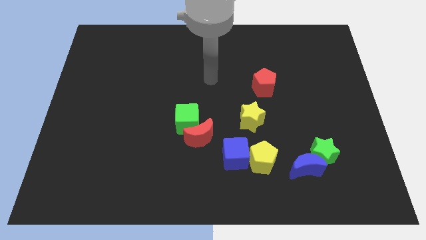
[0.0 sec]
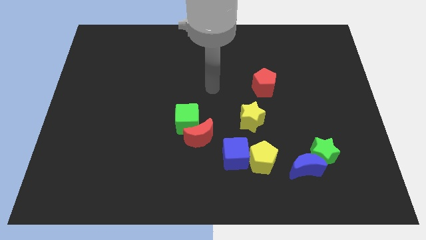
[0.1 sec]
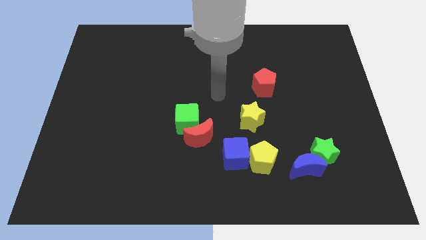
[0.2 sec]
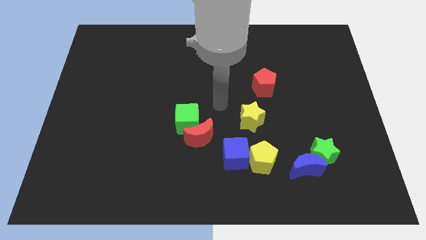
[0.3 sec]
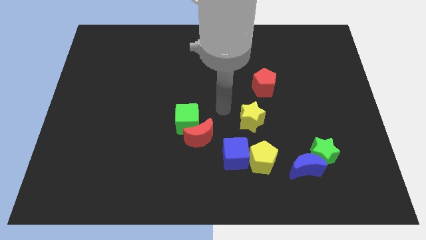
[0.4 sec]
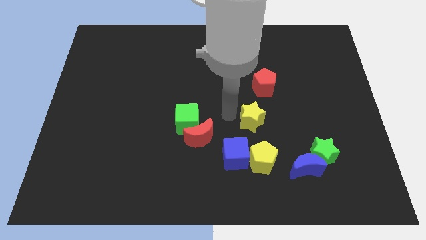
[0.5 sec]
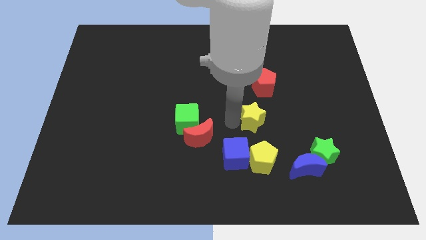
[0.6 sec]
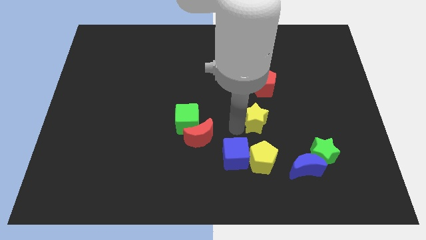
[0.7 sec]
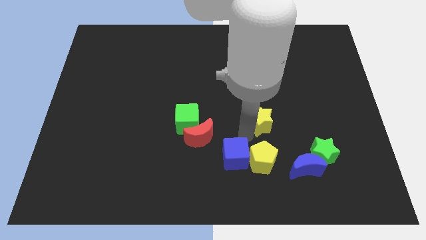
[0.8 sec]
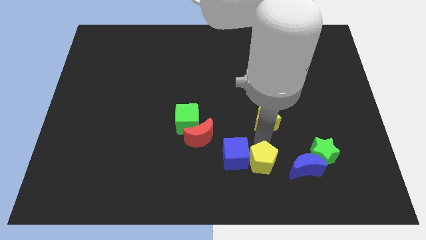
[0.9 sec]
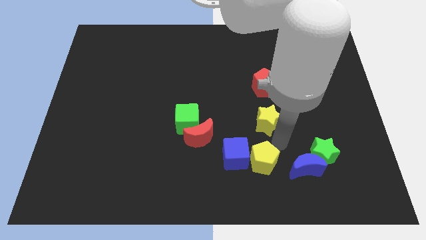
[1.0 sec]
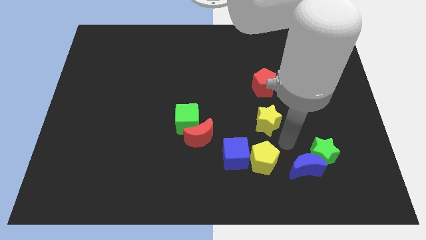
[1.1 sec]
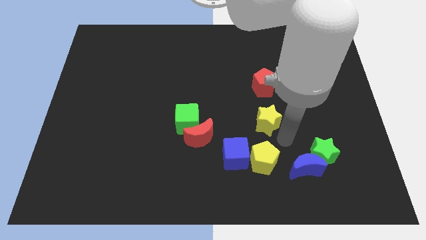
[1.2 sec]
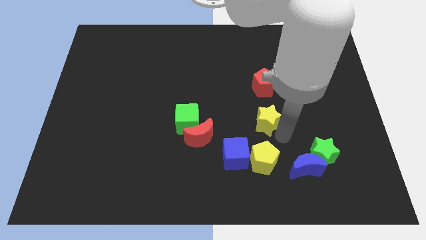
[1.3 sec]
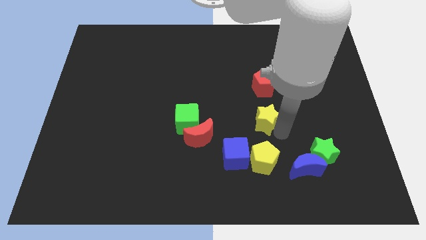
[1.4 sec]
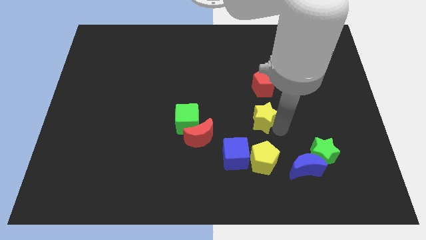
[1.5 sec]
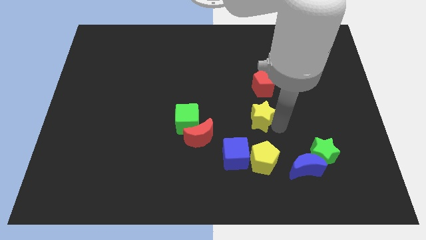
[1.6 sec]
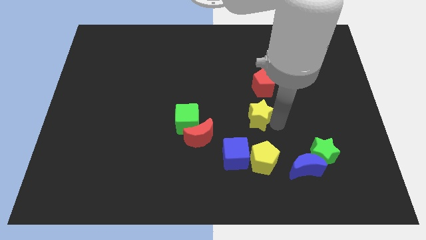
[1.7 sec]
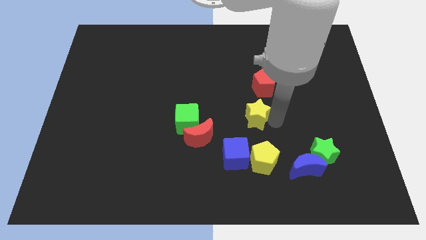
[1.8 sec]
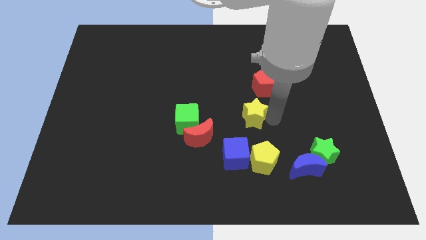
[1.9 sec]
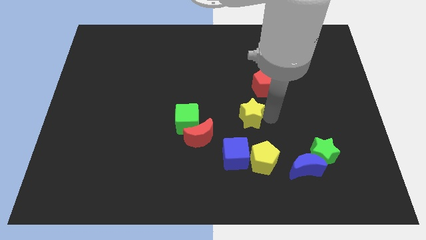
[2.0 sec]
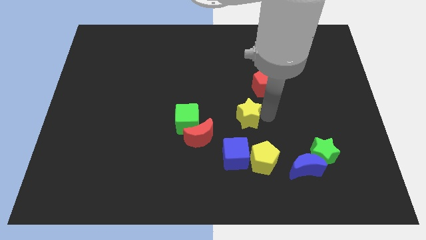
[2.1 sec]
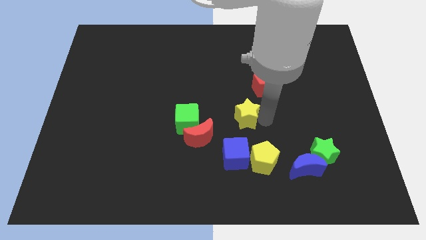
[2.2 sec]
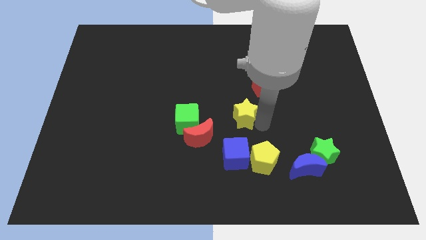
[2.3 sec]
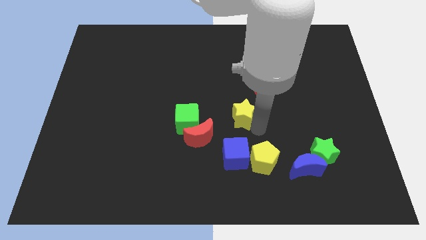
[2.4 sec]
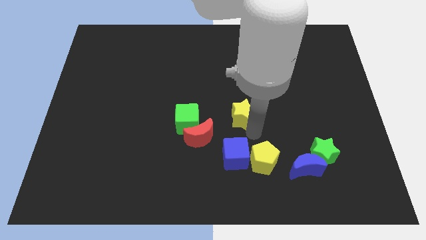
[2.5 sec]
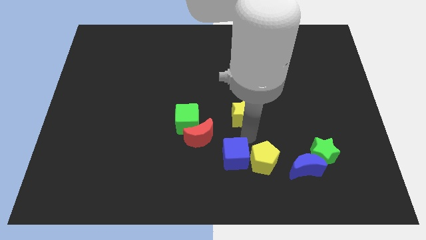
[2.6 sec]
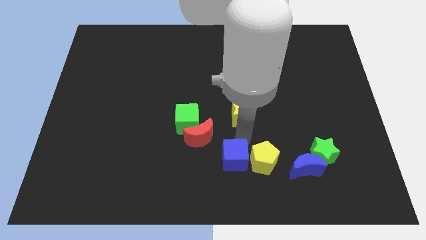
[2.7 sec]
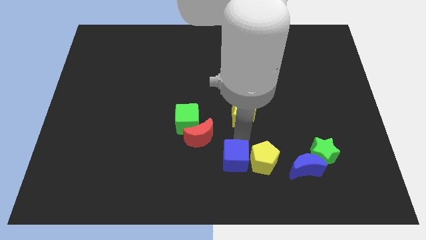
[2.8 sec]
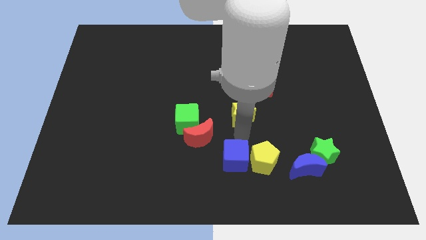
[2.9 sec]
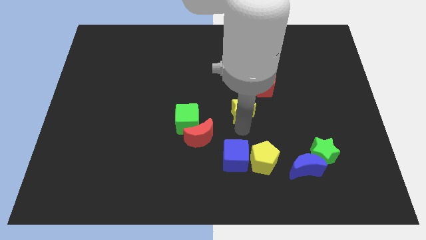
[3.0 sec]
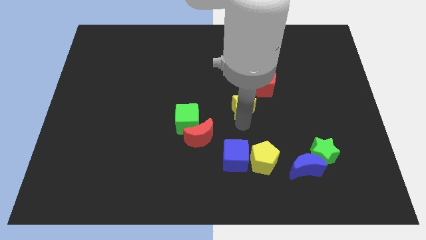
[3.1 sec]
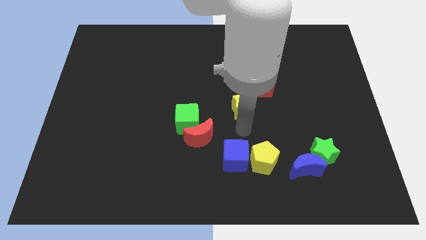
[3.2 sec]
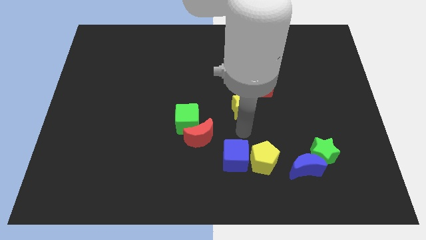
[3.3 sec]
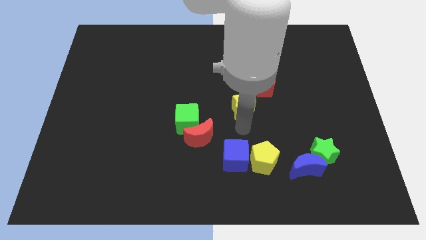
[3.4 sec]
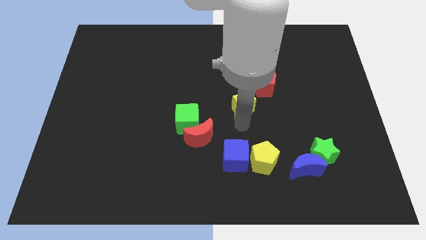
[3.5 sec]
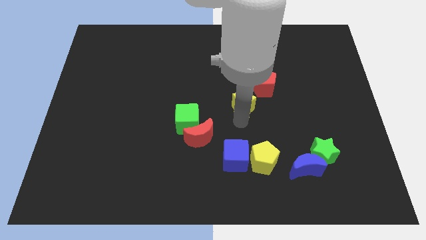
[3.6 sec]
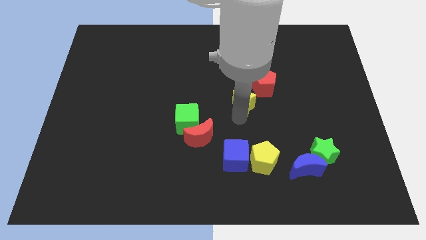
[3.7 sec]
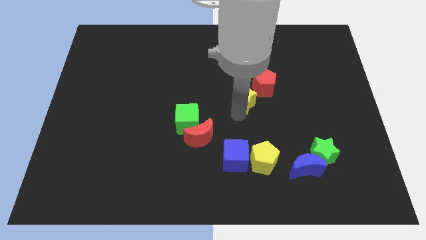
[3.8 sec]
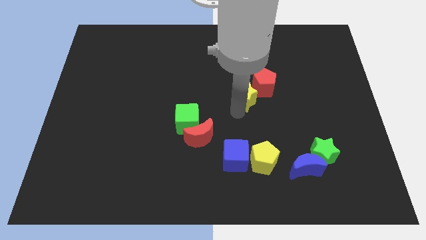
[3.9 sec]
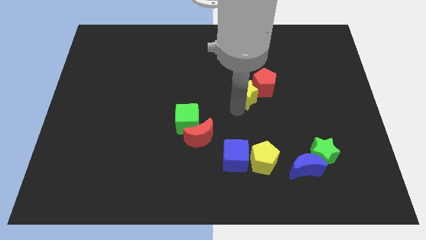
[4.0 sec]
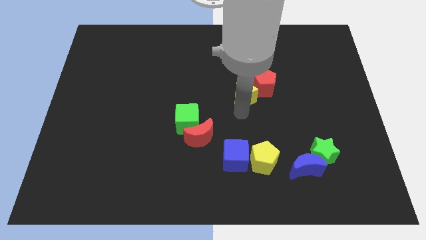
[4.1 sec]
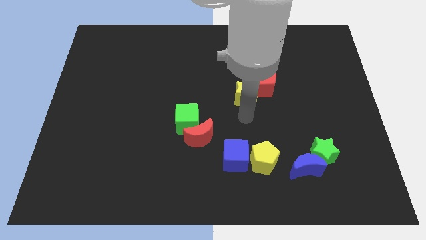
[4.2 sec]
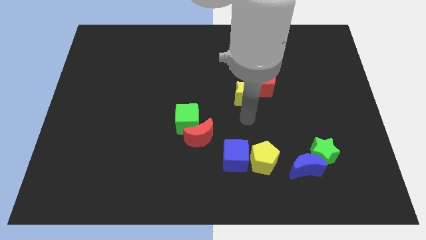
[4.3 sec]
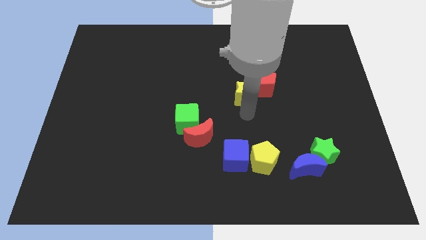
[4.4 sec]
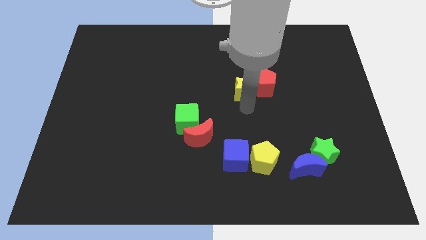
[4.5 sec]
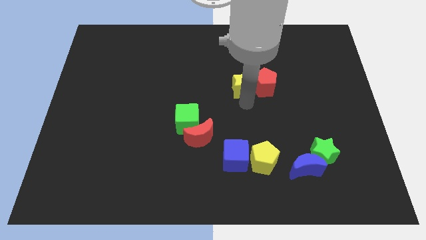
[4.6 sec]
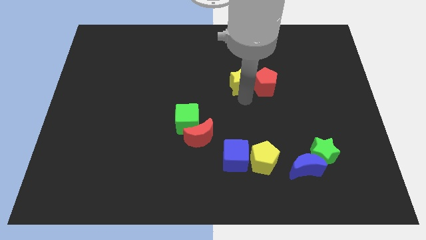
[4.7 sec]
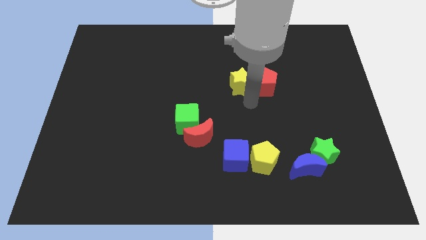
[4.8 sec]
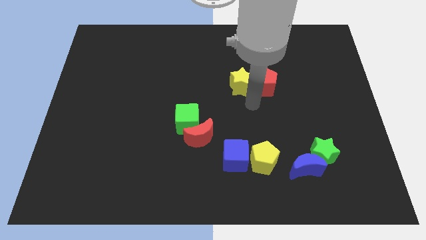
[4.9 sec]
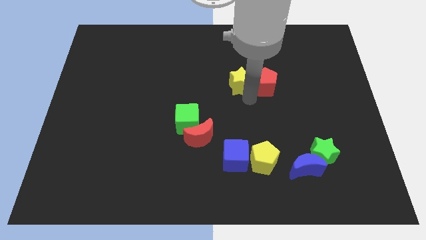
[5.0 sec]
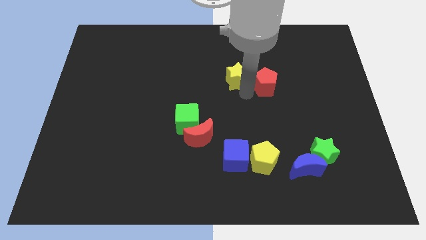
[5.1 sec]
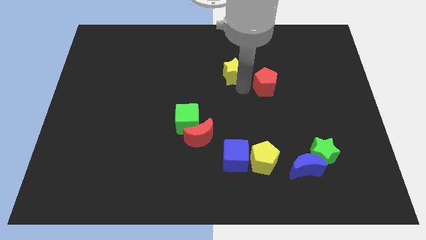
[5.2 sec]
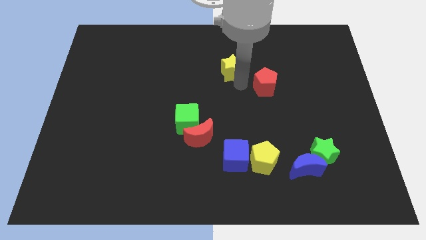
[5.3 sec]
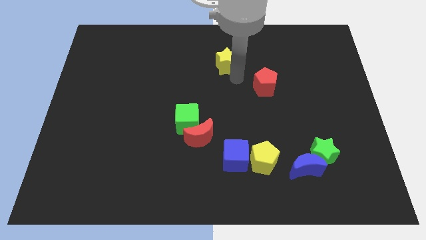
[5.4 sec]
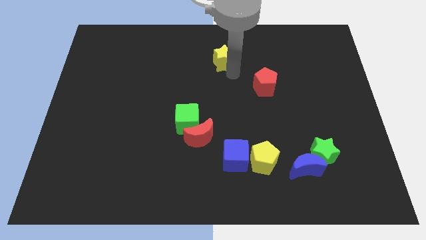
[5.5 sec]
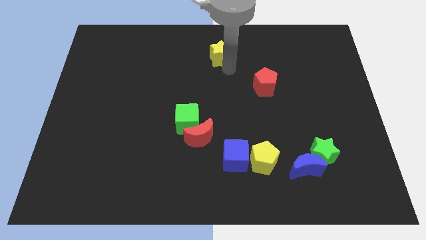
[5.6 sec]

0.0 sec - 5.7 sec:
put the yellow star to the top side
